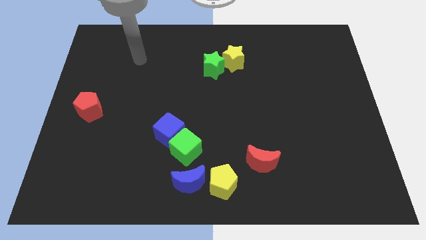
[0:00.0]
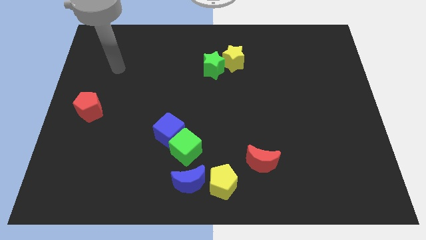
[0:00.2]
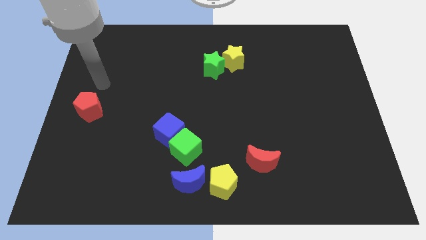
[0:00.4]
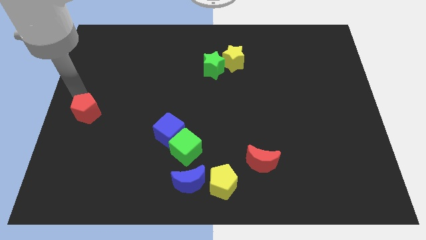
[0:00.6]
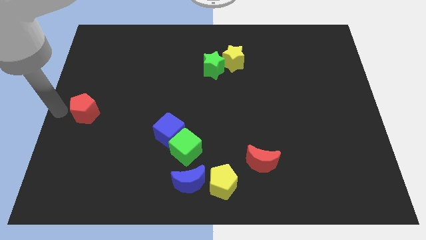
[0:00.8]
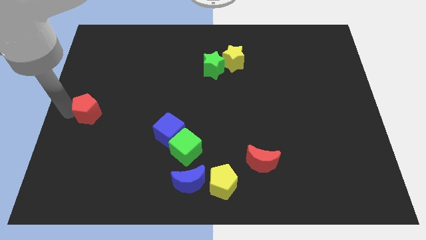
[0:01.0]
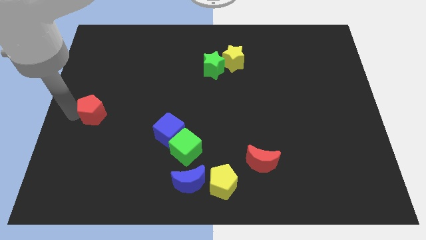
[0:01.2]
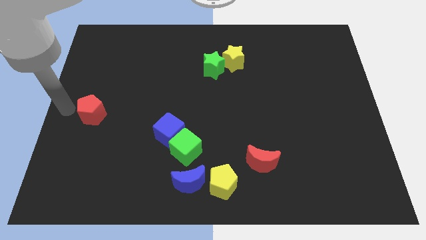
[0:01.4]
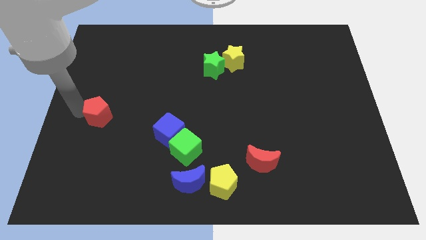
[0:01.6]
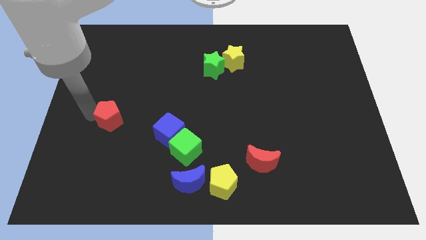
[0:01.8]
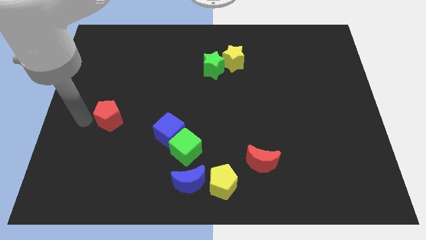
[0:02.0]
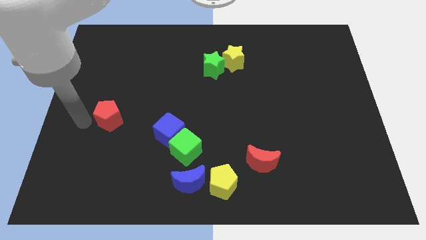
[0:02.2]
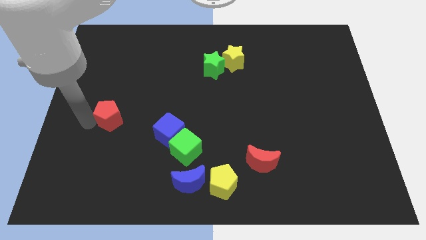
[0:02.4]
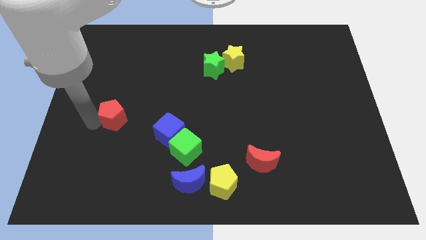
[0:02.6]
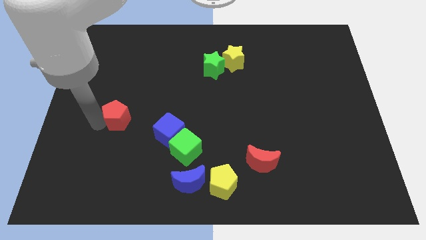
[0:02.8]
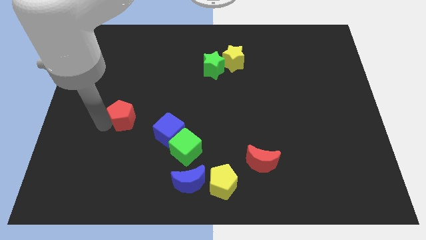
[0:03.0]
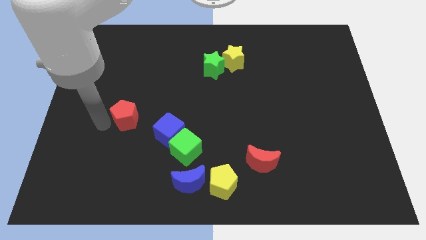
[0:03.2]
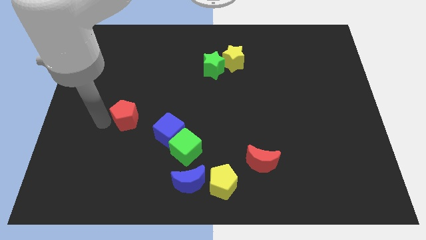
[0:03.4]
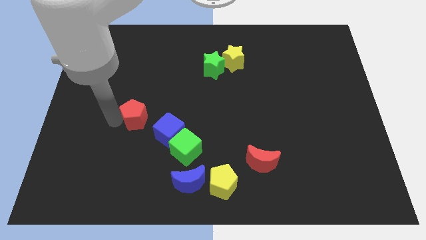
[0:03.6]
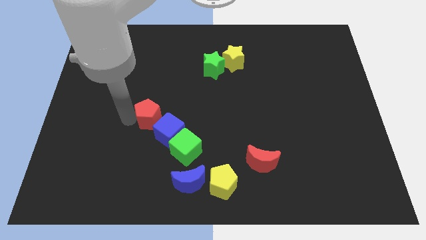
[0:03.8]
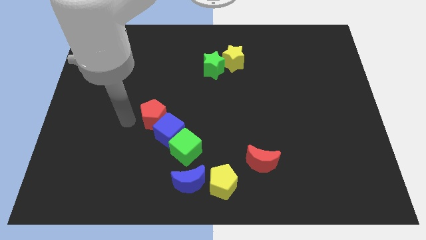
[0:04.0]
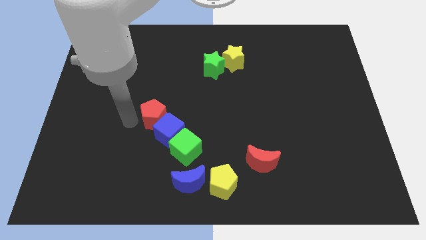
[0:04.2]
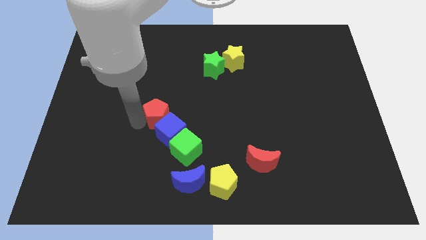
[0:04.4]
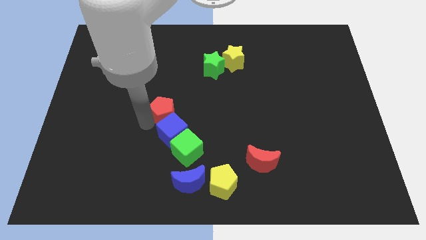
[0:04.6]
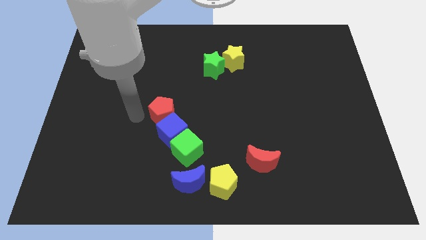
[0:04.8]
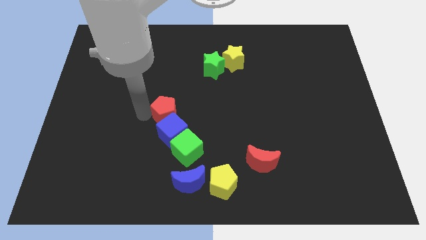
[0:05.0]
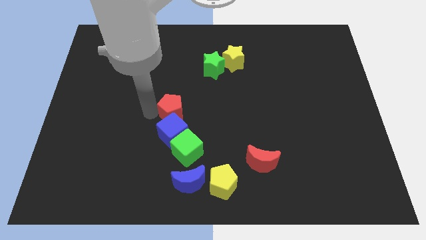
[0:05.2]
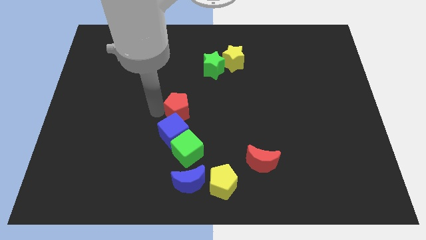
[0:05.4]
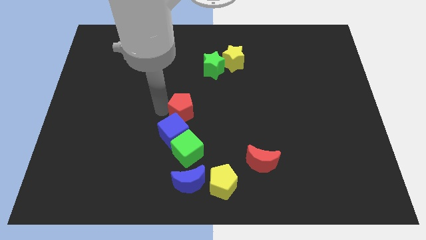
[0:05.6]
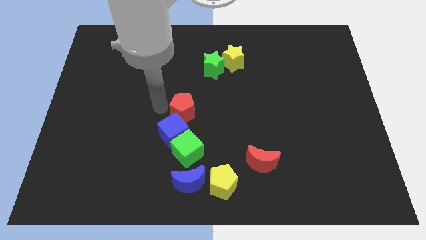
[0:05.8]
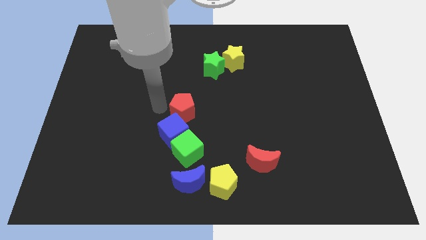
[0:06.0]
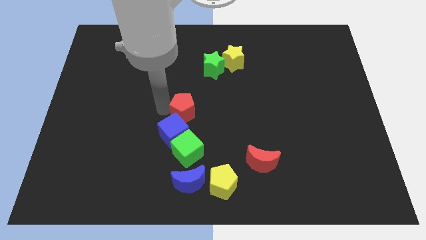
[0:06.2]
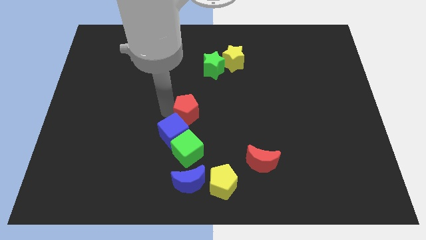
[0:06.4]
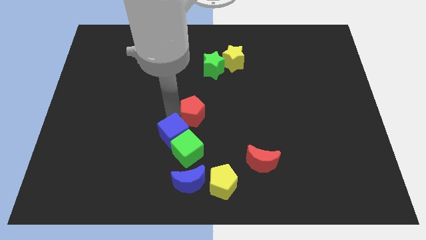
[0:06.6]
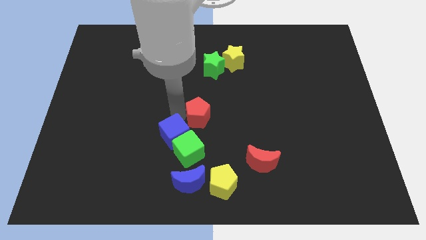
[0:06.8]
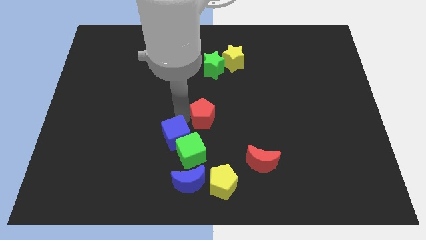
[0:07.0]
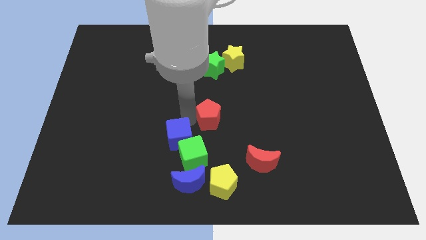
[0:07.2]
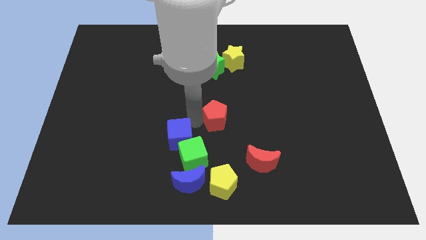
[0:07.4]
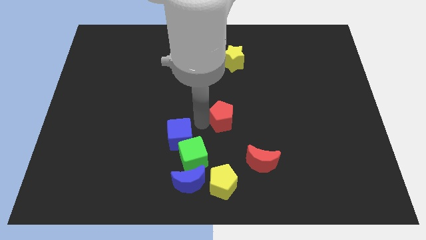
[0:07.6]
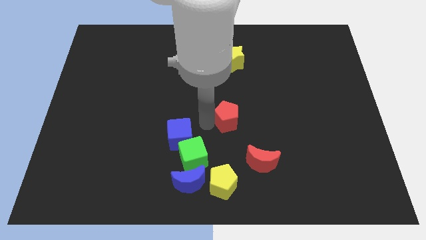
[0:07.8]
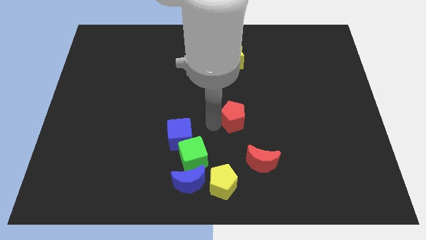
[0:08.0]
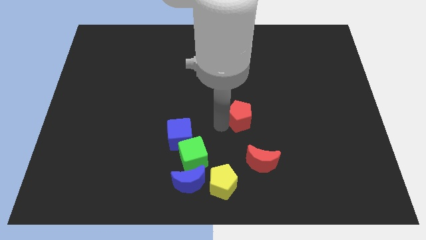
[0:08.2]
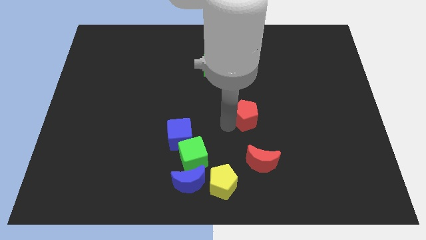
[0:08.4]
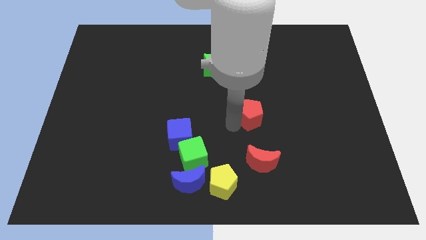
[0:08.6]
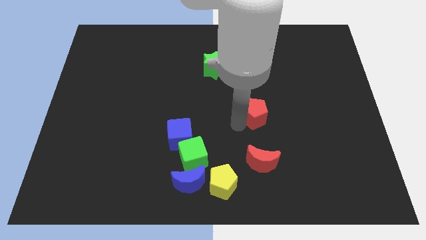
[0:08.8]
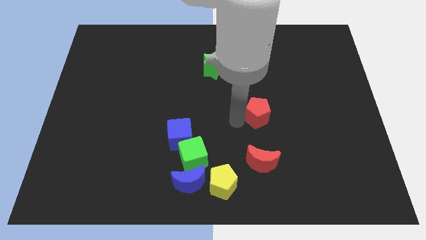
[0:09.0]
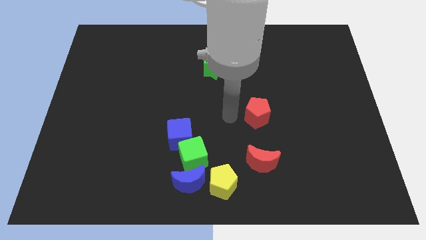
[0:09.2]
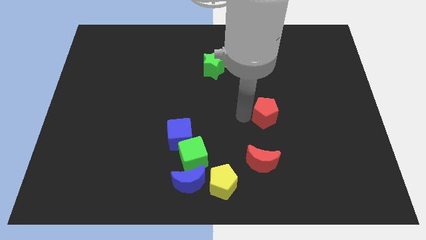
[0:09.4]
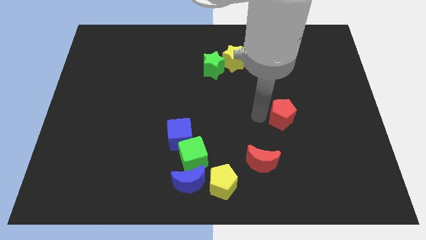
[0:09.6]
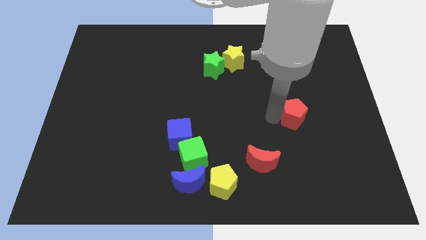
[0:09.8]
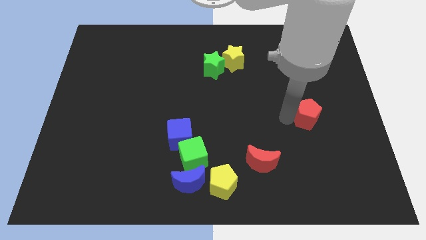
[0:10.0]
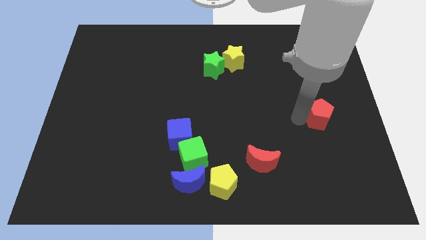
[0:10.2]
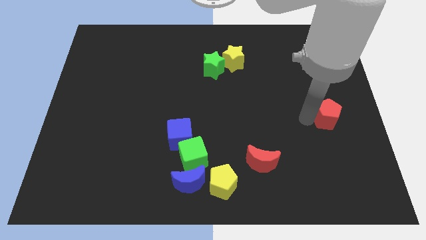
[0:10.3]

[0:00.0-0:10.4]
move the red pentagon to the right side

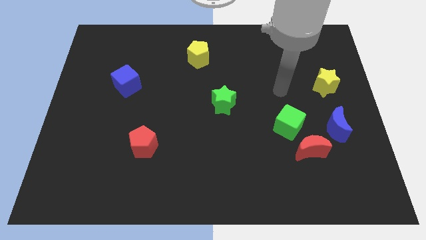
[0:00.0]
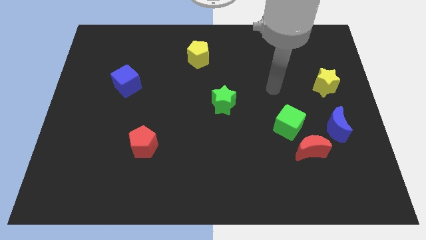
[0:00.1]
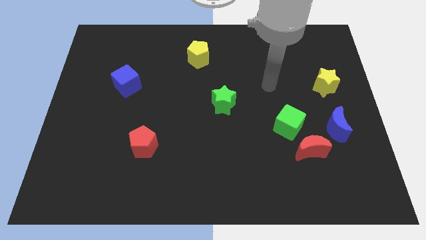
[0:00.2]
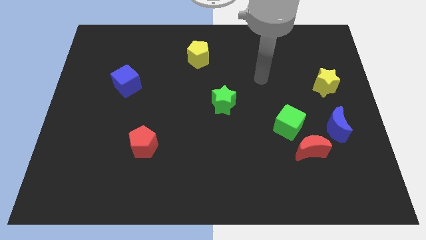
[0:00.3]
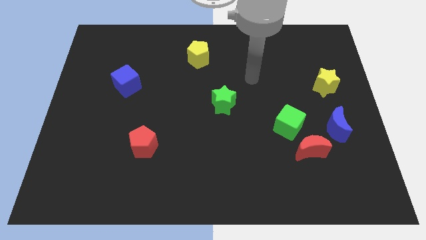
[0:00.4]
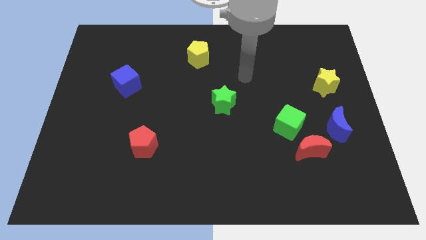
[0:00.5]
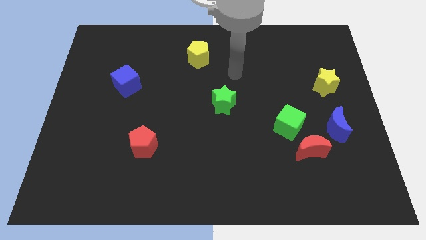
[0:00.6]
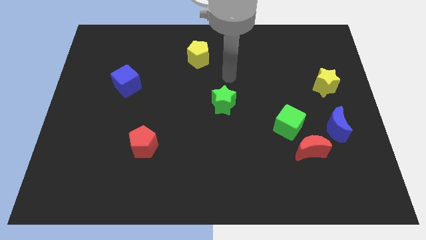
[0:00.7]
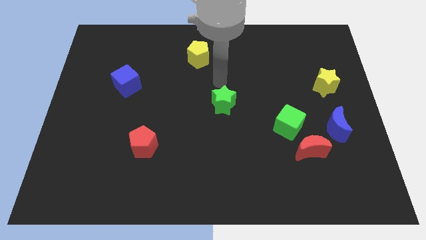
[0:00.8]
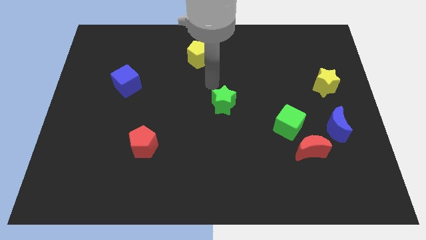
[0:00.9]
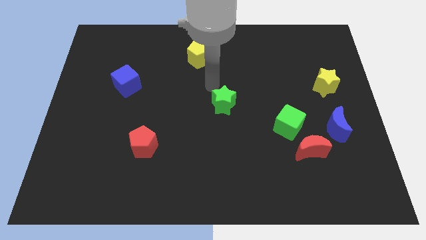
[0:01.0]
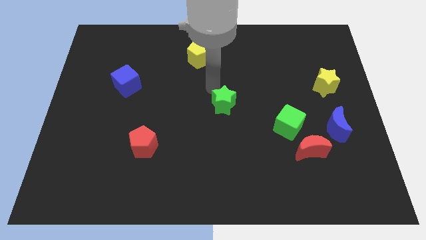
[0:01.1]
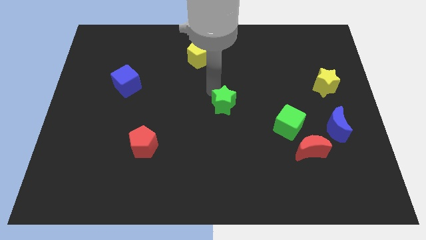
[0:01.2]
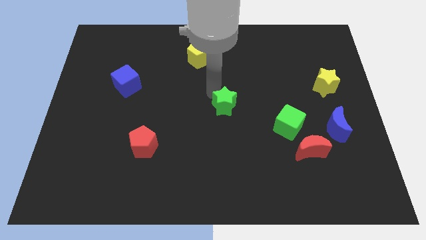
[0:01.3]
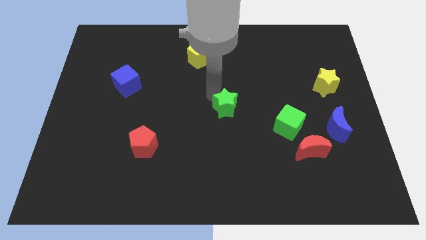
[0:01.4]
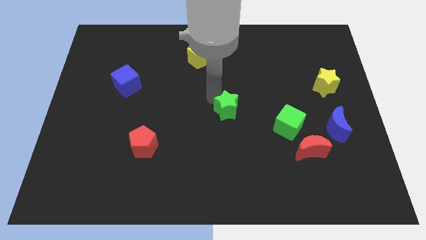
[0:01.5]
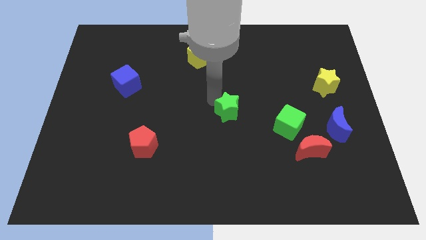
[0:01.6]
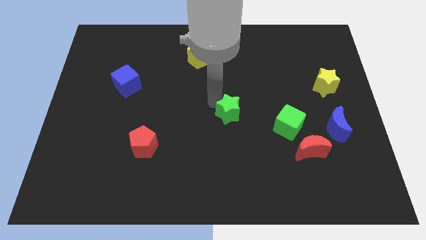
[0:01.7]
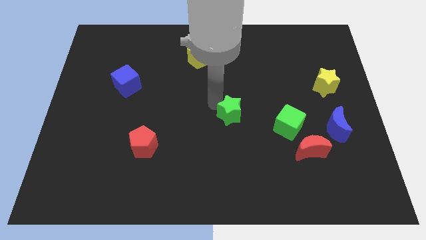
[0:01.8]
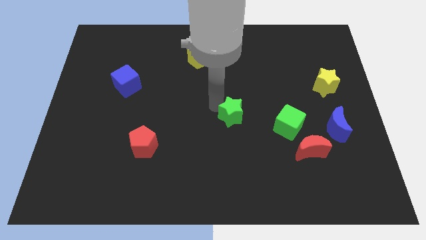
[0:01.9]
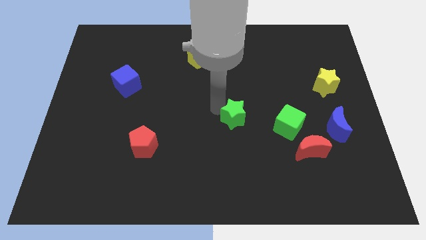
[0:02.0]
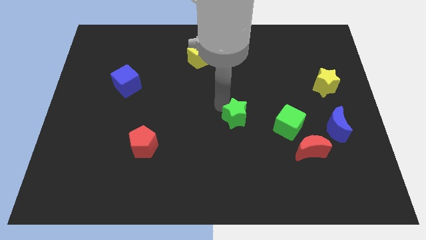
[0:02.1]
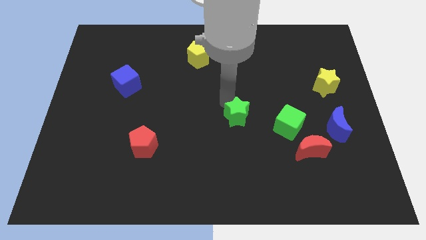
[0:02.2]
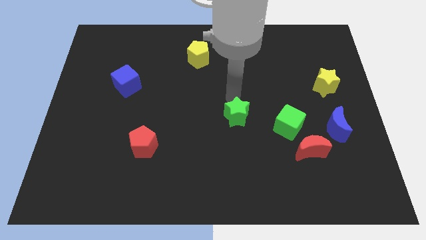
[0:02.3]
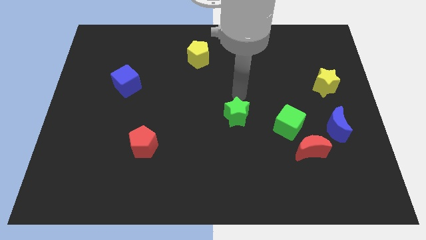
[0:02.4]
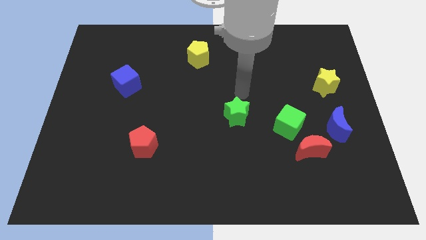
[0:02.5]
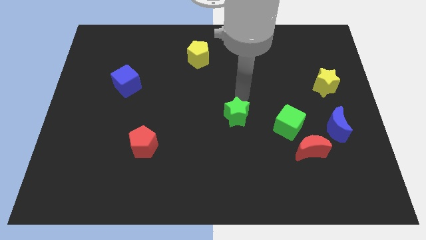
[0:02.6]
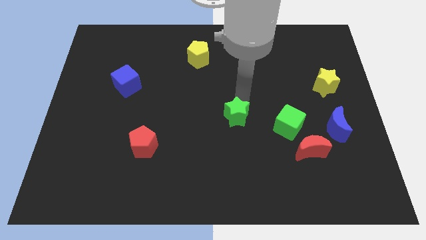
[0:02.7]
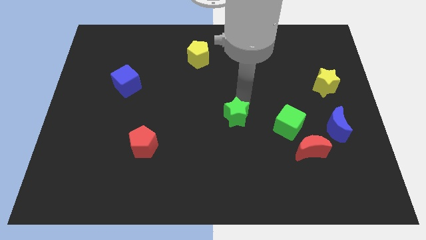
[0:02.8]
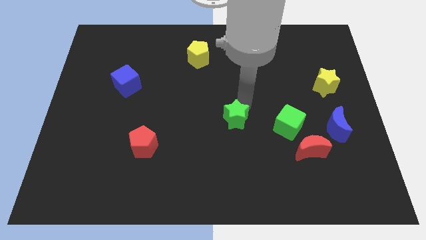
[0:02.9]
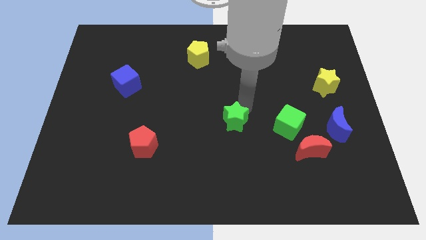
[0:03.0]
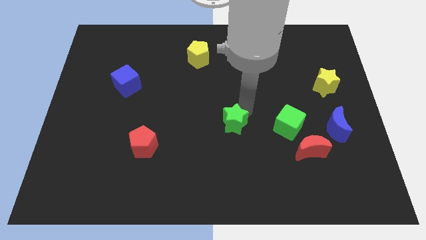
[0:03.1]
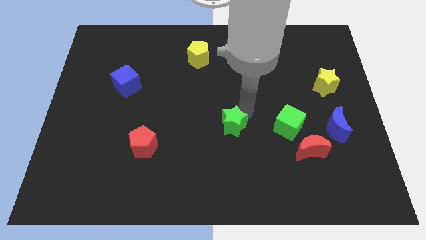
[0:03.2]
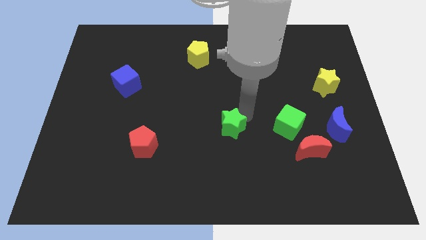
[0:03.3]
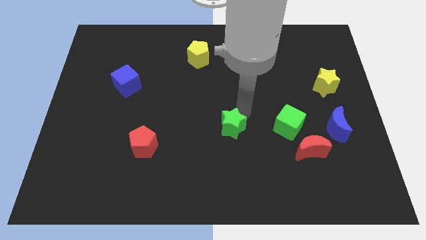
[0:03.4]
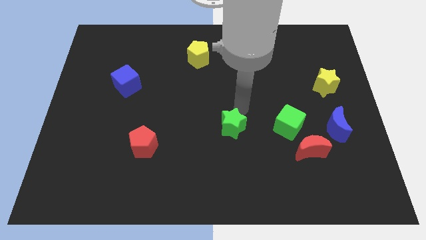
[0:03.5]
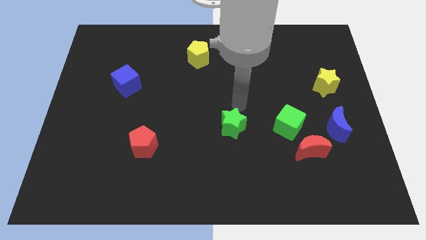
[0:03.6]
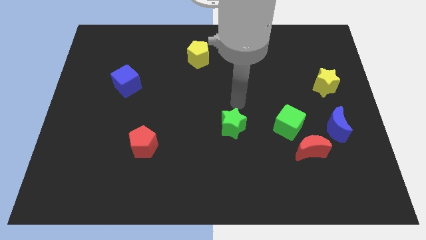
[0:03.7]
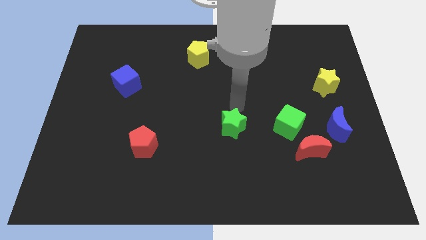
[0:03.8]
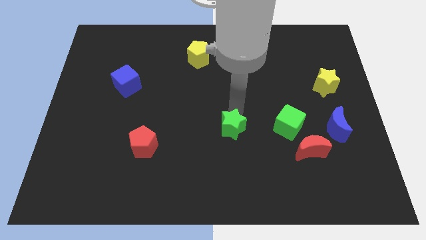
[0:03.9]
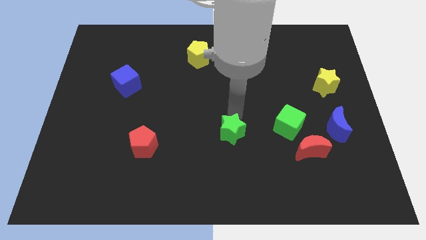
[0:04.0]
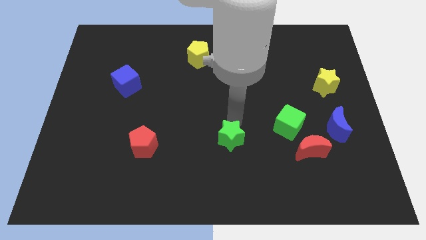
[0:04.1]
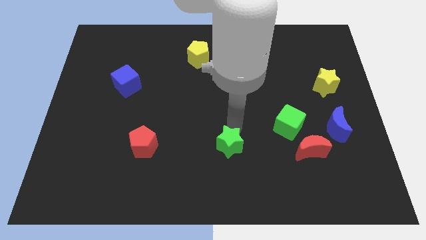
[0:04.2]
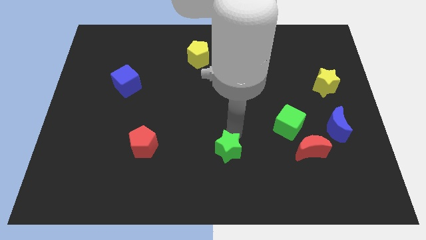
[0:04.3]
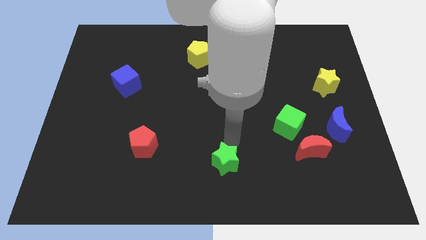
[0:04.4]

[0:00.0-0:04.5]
slide the green star to the bottom side
